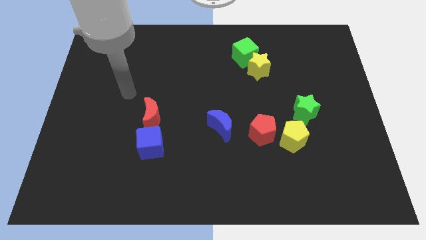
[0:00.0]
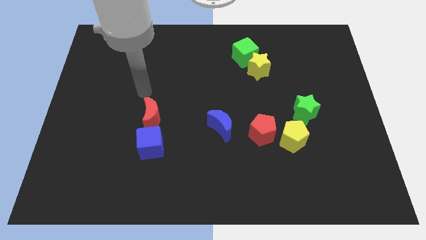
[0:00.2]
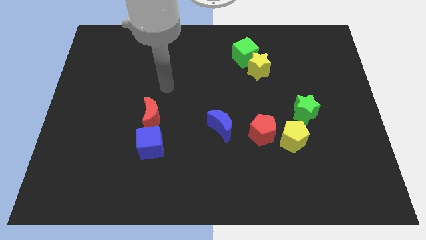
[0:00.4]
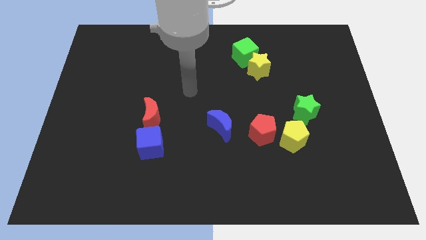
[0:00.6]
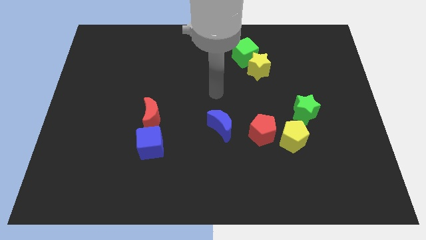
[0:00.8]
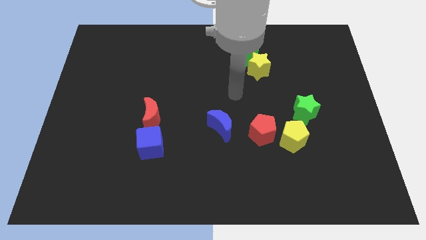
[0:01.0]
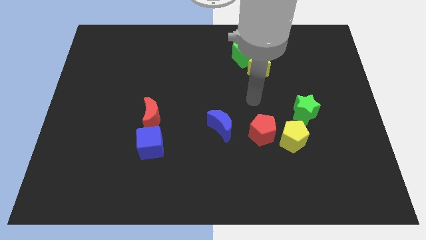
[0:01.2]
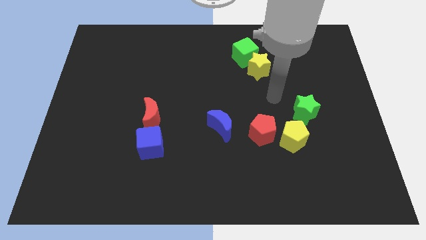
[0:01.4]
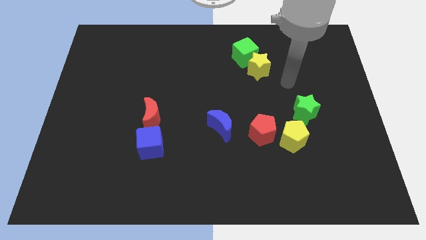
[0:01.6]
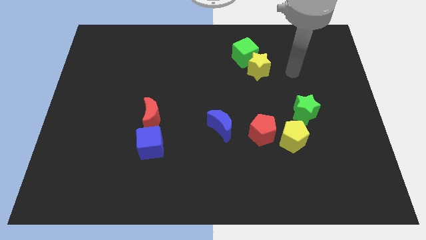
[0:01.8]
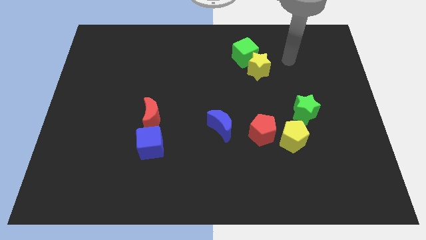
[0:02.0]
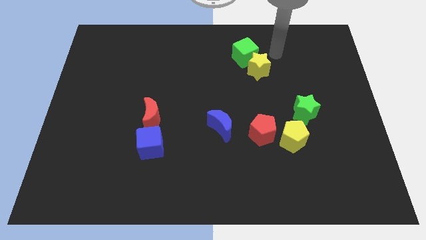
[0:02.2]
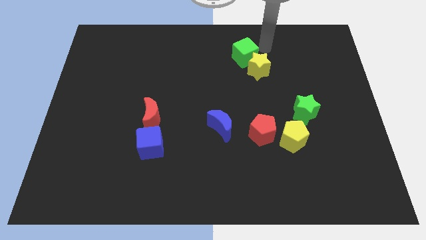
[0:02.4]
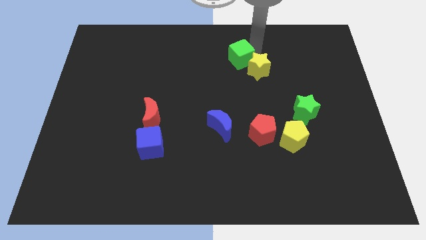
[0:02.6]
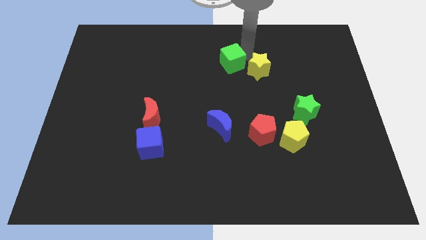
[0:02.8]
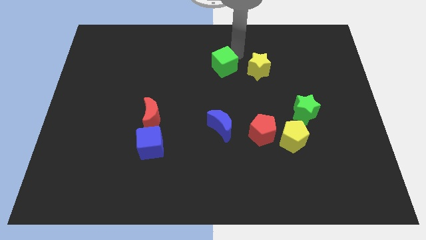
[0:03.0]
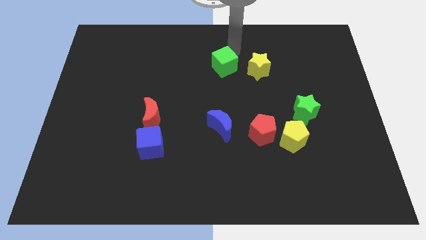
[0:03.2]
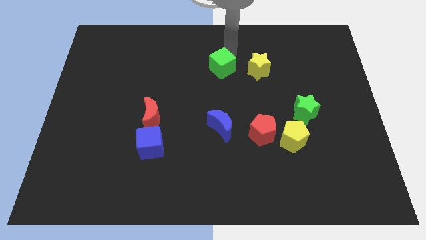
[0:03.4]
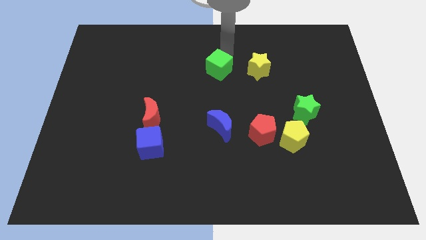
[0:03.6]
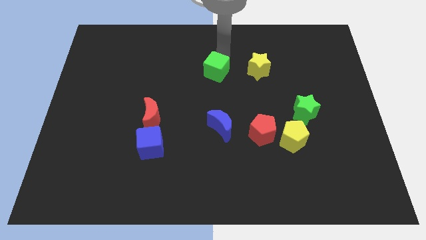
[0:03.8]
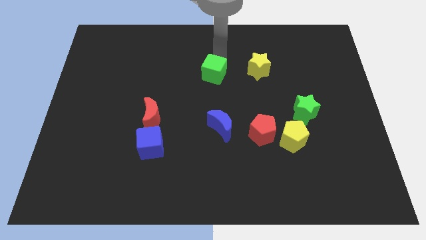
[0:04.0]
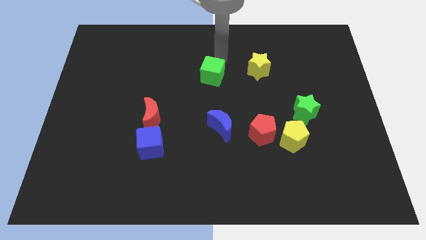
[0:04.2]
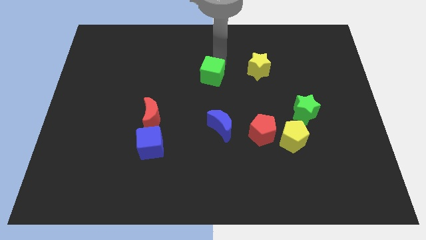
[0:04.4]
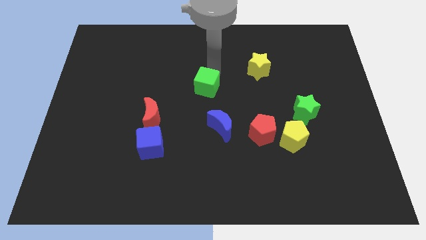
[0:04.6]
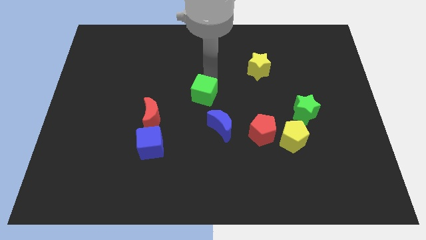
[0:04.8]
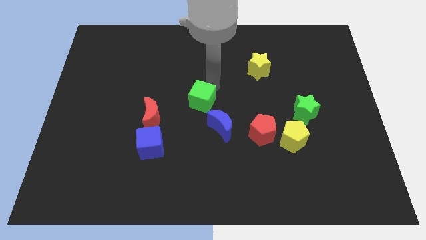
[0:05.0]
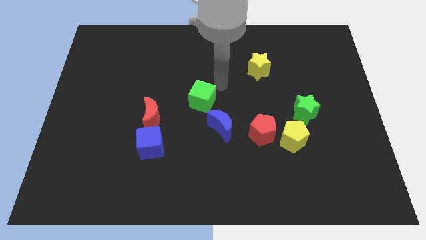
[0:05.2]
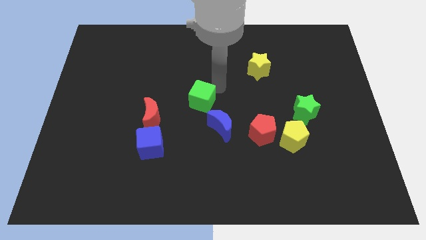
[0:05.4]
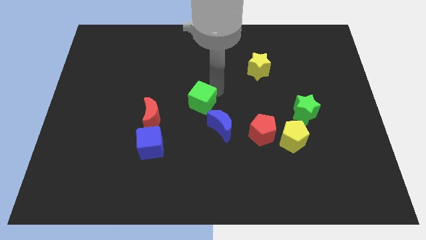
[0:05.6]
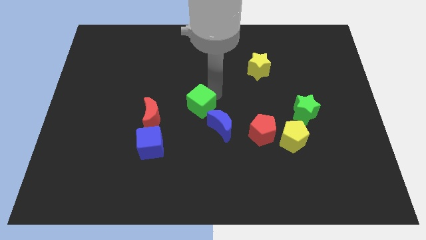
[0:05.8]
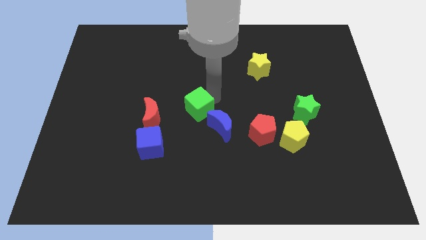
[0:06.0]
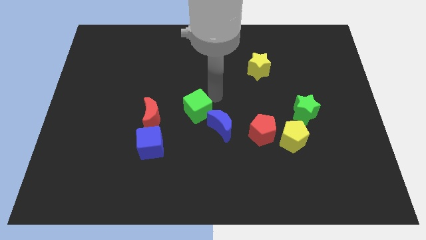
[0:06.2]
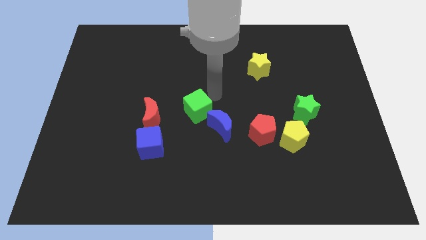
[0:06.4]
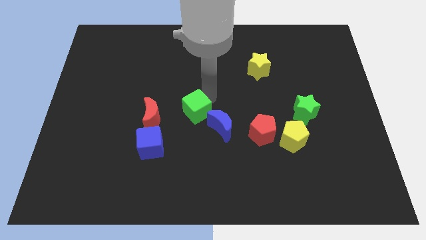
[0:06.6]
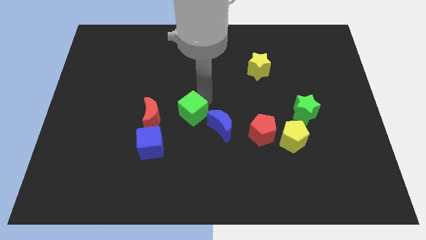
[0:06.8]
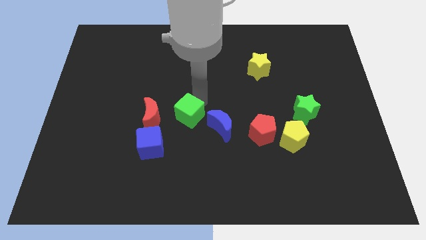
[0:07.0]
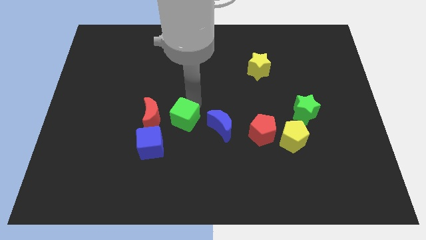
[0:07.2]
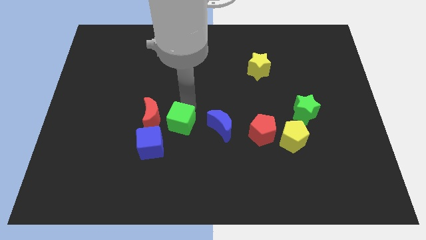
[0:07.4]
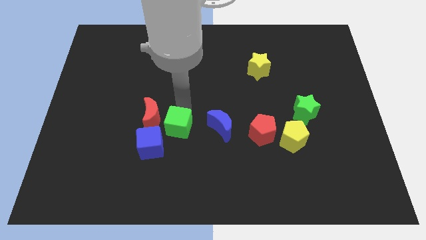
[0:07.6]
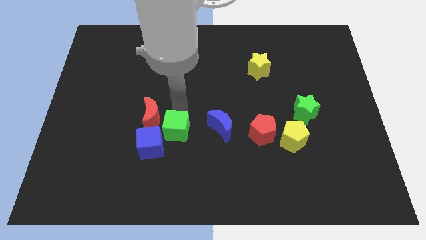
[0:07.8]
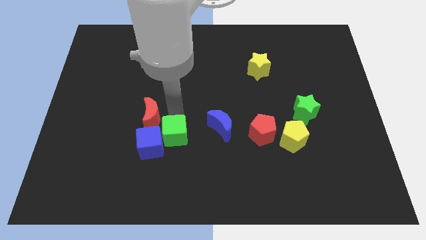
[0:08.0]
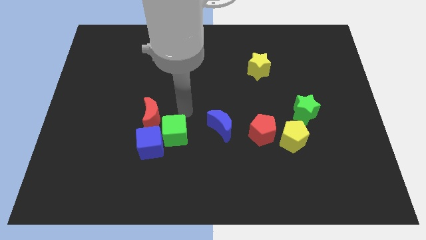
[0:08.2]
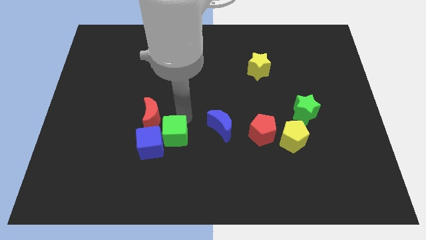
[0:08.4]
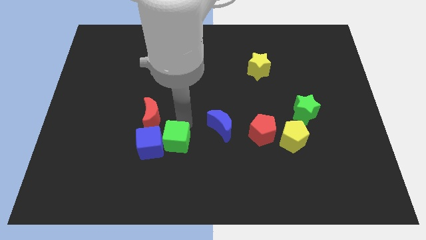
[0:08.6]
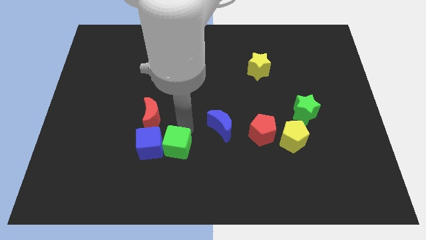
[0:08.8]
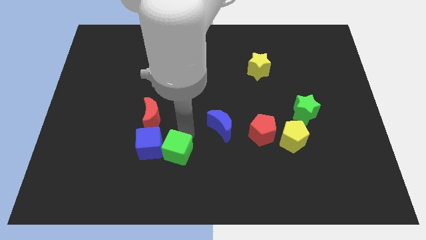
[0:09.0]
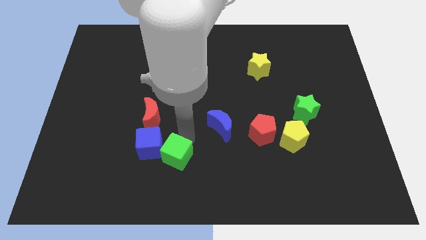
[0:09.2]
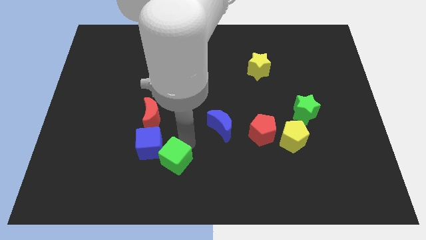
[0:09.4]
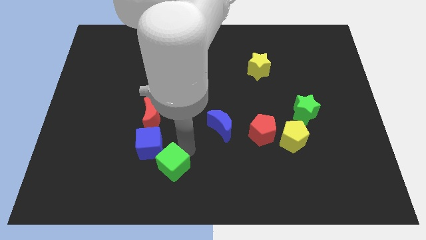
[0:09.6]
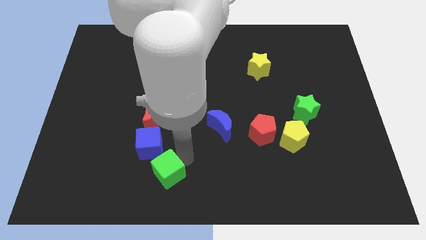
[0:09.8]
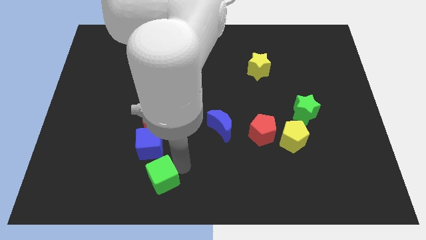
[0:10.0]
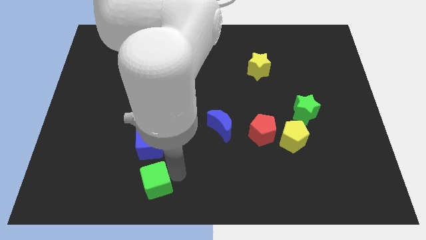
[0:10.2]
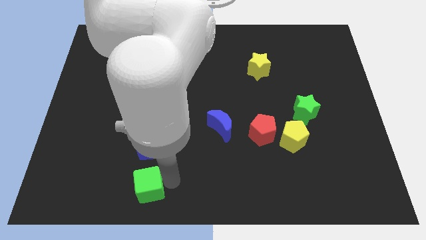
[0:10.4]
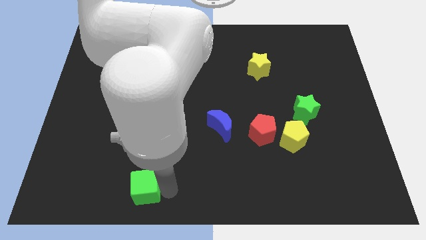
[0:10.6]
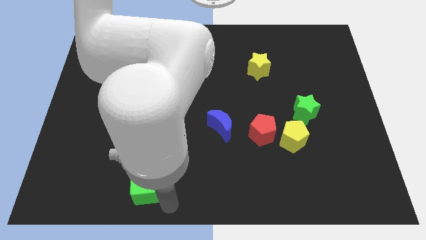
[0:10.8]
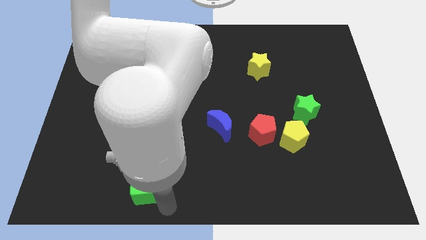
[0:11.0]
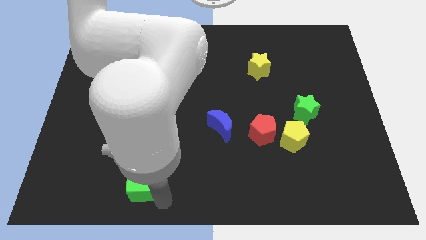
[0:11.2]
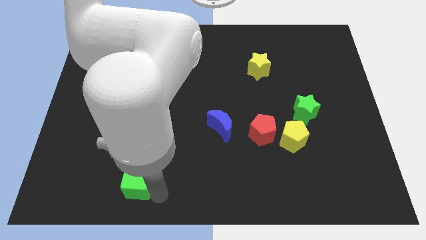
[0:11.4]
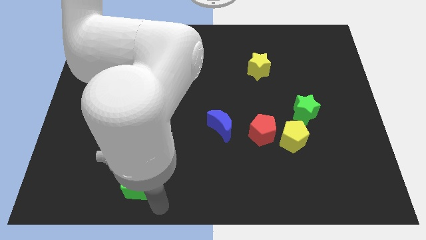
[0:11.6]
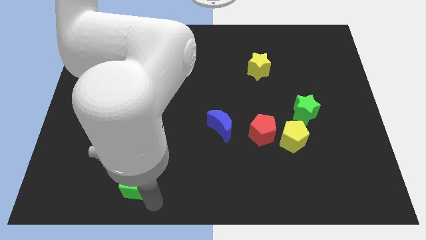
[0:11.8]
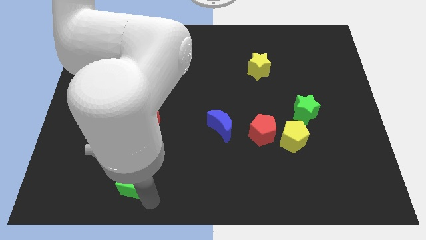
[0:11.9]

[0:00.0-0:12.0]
put the green cube to the bottom left of the blue cube
